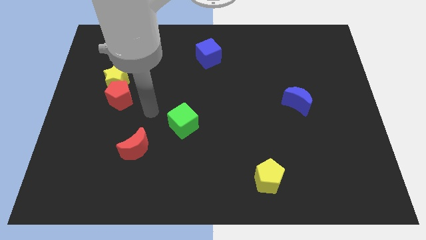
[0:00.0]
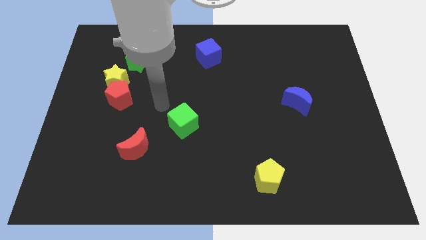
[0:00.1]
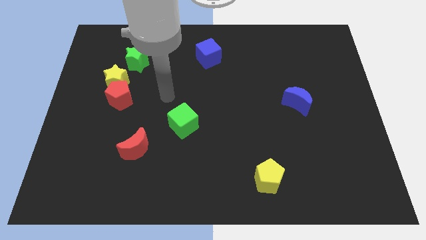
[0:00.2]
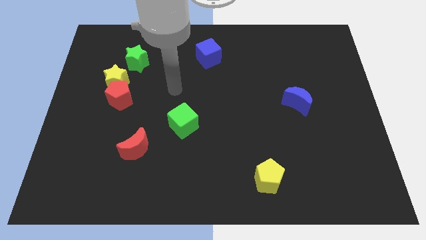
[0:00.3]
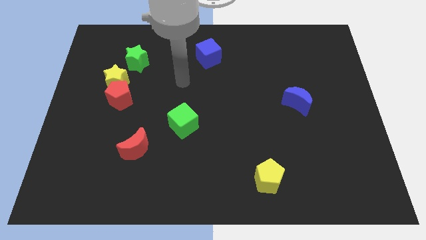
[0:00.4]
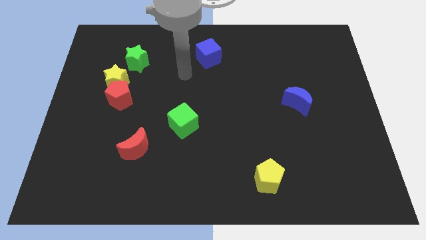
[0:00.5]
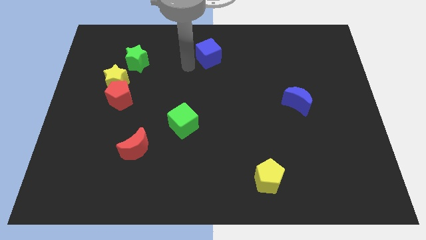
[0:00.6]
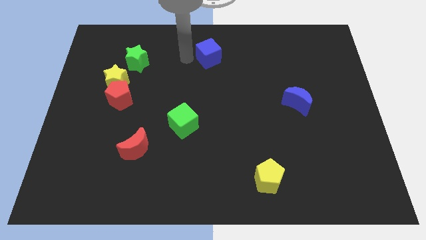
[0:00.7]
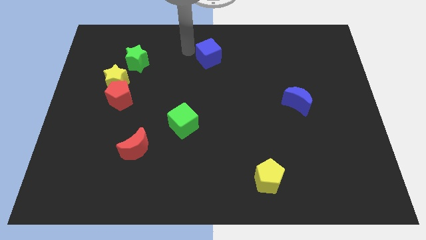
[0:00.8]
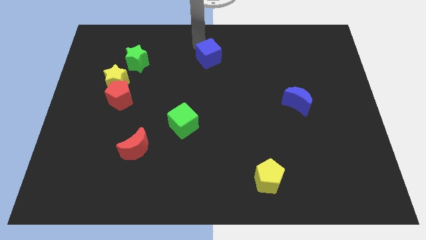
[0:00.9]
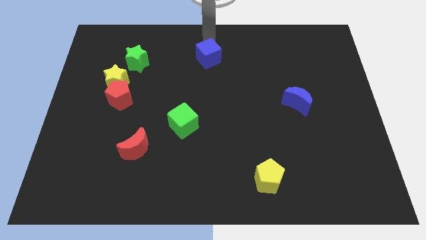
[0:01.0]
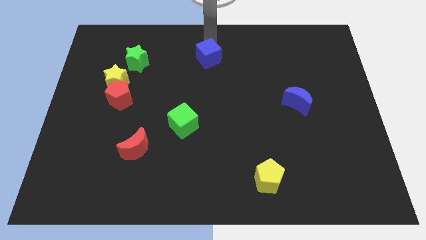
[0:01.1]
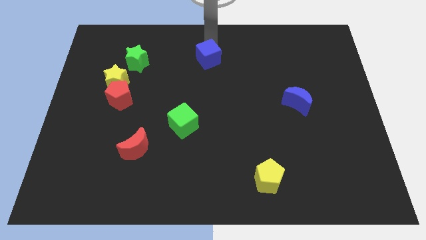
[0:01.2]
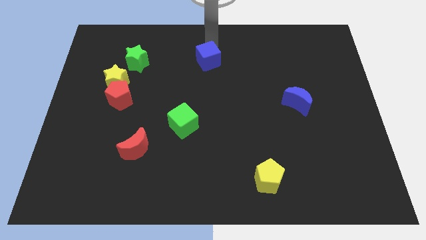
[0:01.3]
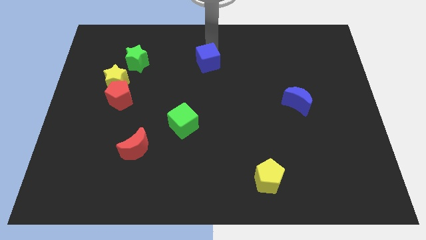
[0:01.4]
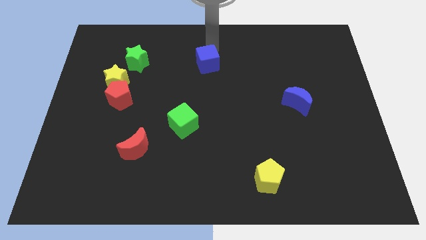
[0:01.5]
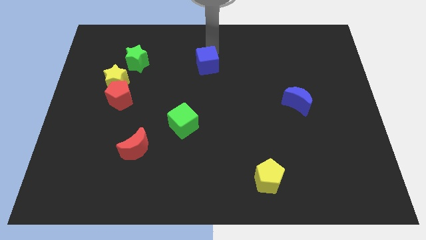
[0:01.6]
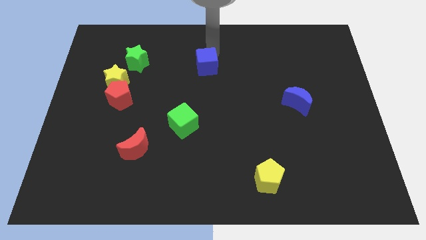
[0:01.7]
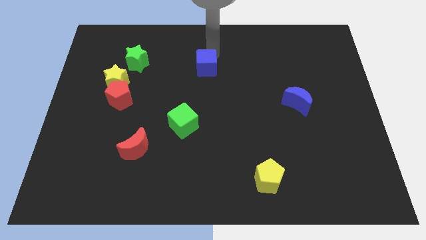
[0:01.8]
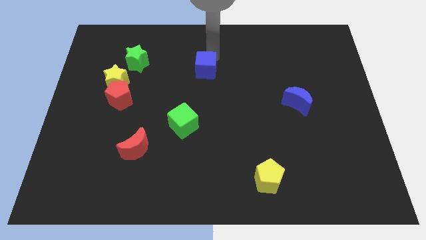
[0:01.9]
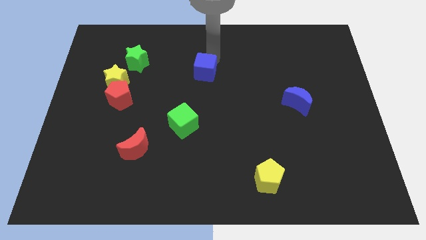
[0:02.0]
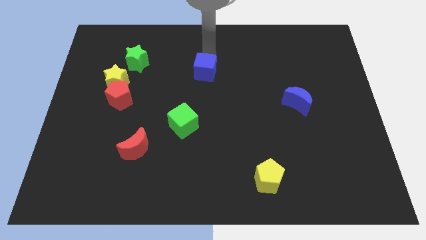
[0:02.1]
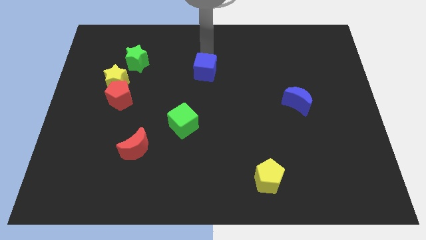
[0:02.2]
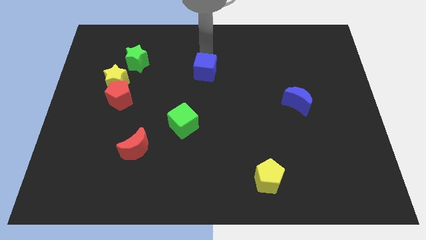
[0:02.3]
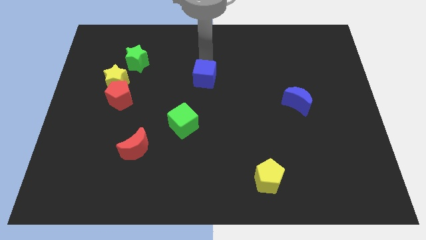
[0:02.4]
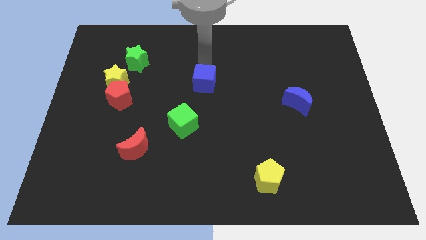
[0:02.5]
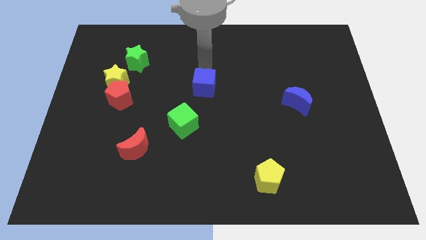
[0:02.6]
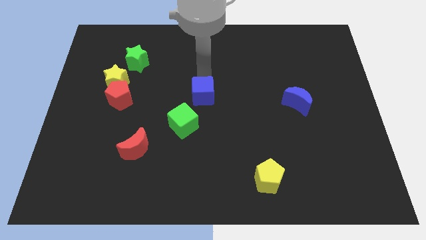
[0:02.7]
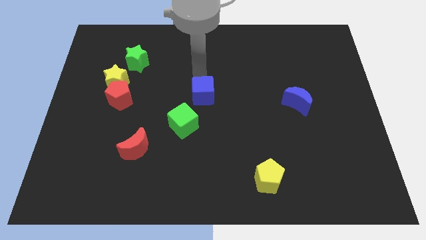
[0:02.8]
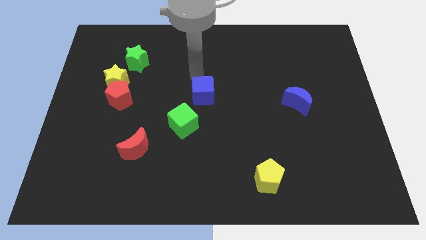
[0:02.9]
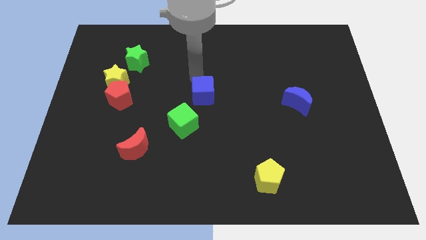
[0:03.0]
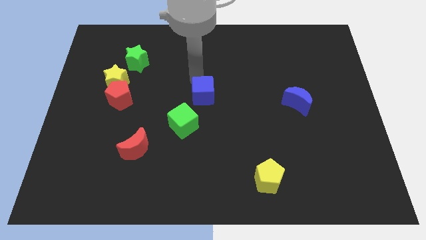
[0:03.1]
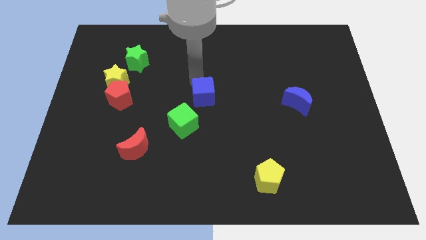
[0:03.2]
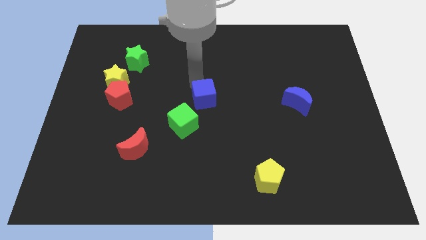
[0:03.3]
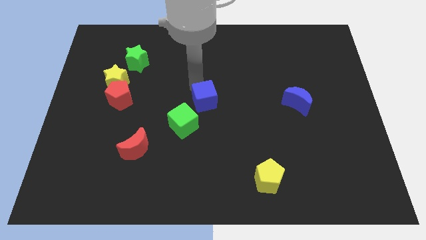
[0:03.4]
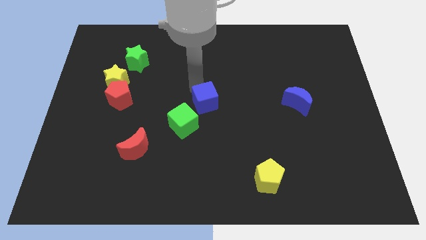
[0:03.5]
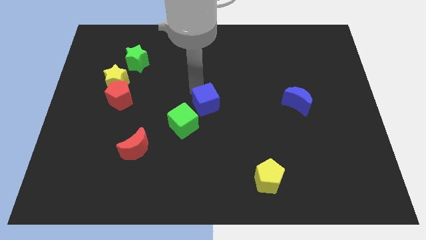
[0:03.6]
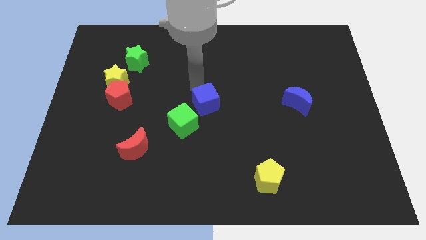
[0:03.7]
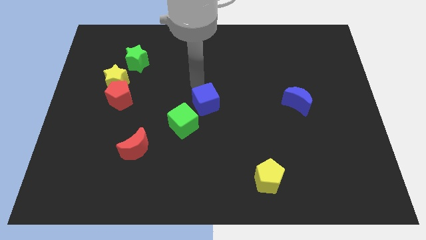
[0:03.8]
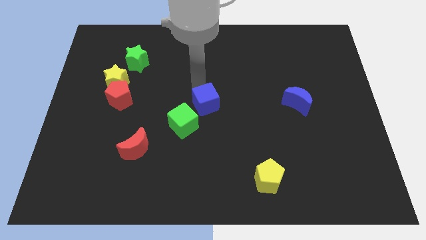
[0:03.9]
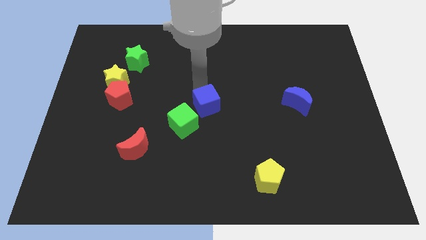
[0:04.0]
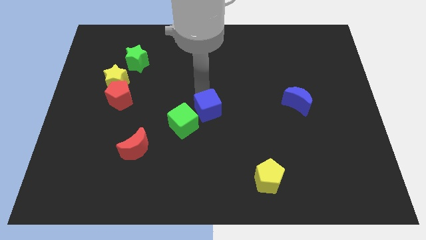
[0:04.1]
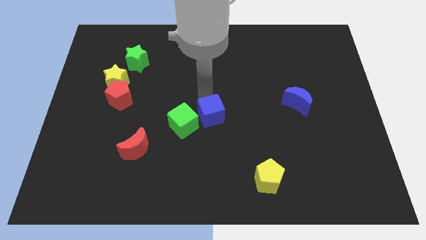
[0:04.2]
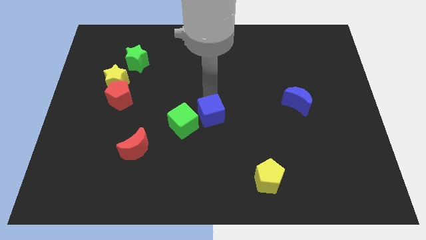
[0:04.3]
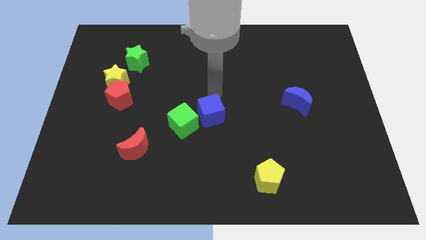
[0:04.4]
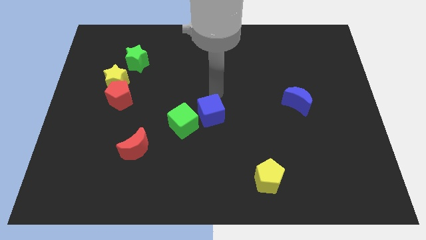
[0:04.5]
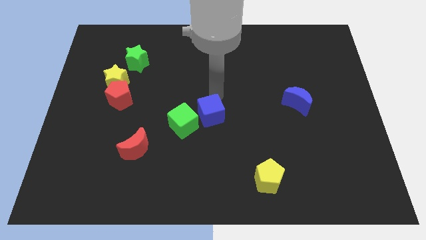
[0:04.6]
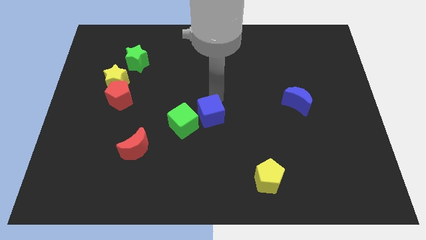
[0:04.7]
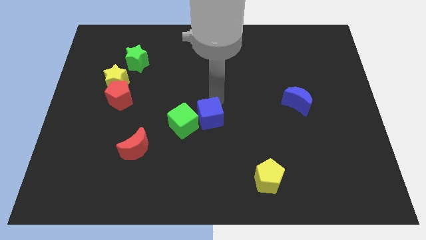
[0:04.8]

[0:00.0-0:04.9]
move the blue cube downwards

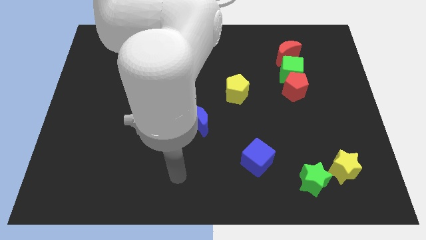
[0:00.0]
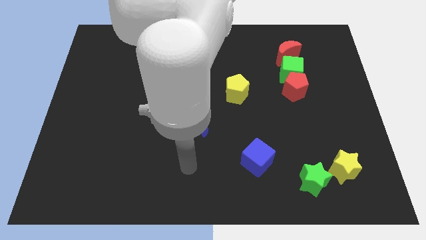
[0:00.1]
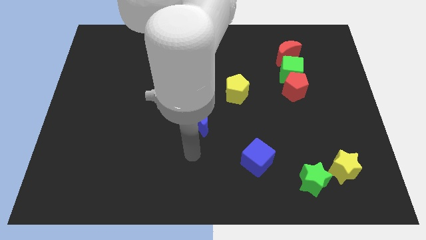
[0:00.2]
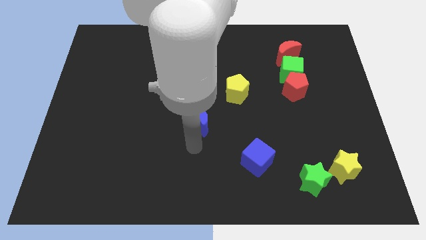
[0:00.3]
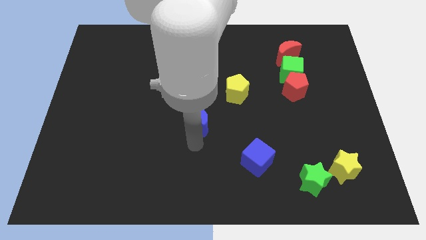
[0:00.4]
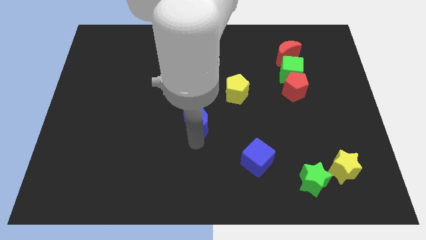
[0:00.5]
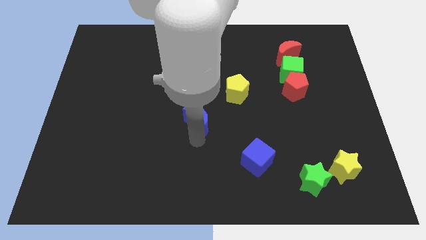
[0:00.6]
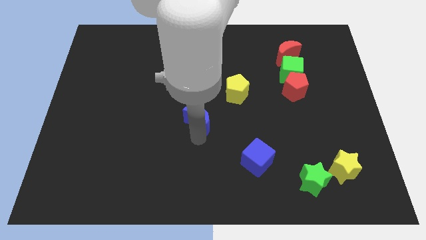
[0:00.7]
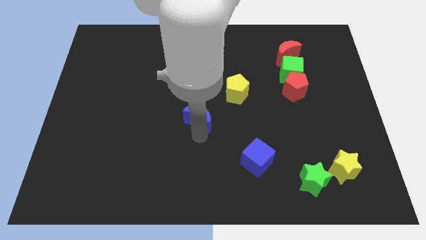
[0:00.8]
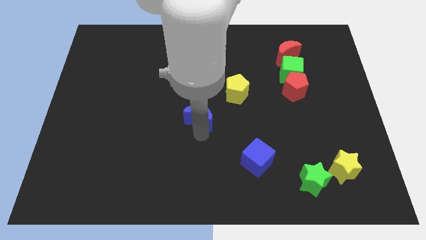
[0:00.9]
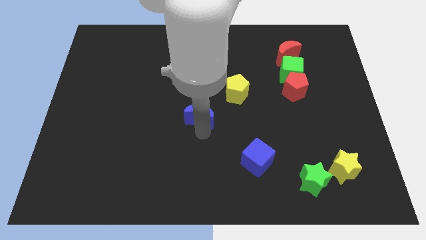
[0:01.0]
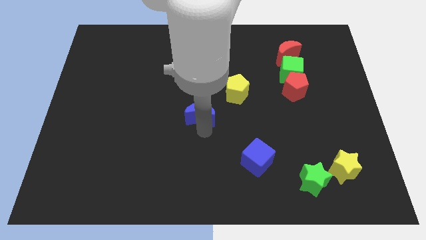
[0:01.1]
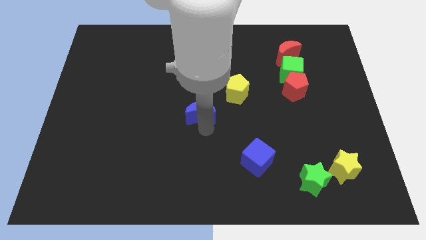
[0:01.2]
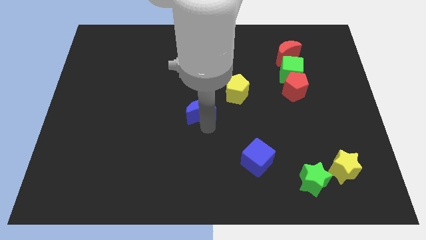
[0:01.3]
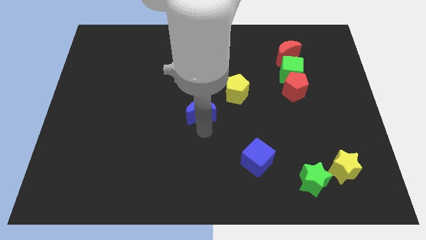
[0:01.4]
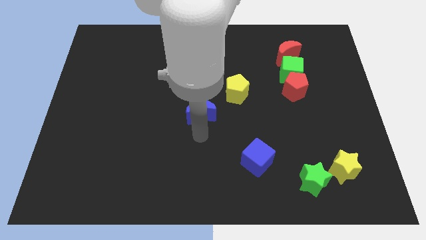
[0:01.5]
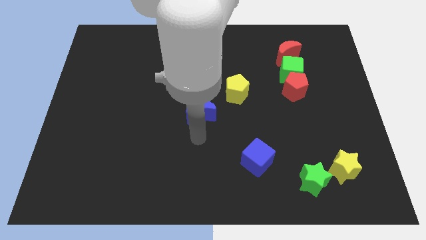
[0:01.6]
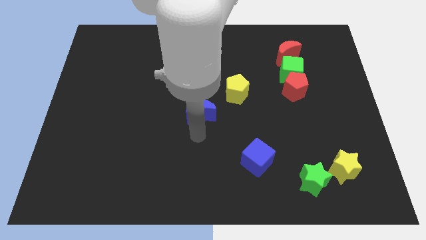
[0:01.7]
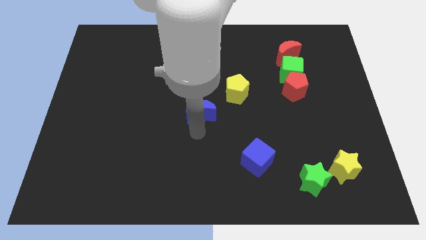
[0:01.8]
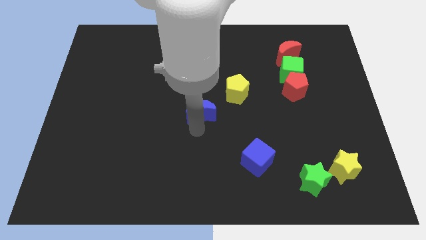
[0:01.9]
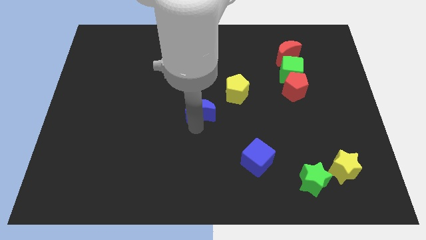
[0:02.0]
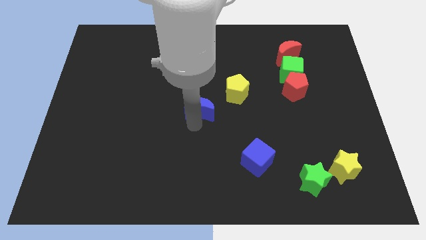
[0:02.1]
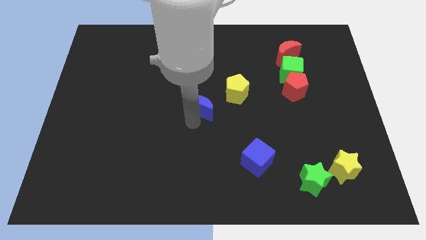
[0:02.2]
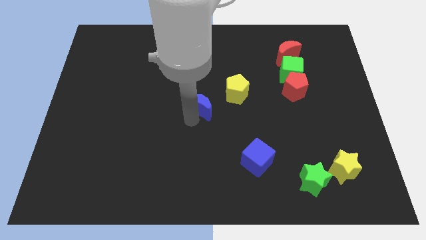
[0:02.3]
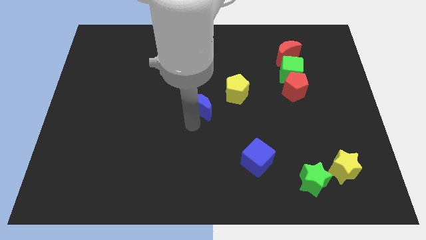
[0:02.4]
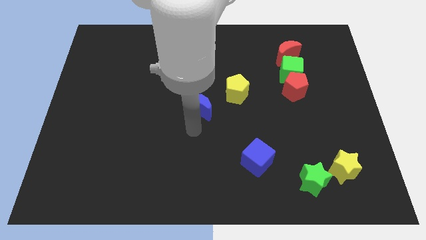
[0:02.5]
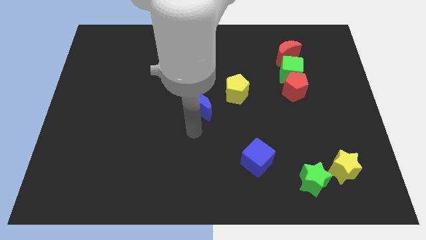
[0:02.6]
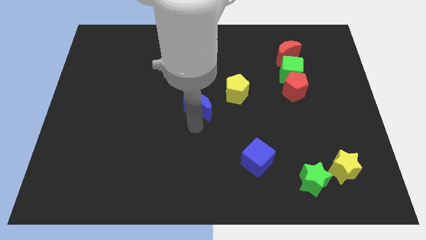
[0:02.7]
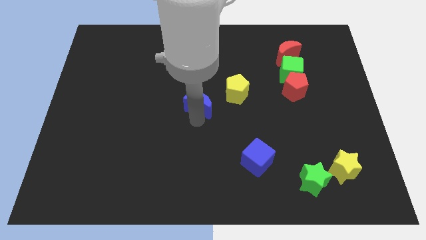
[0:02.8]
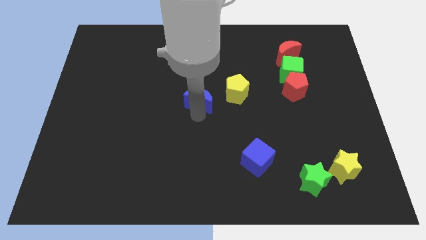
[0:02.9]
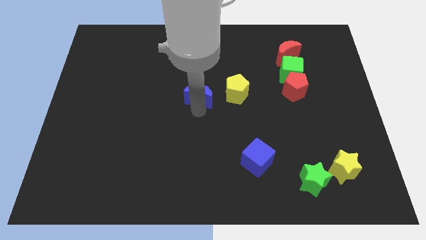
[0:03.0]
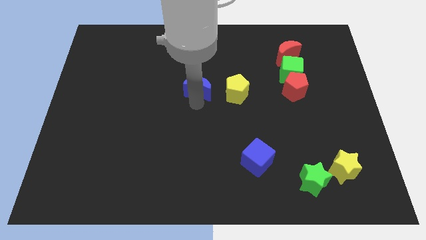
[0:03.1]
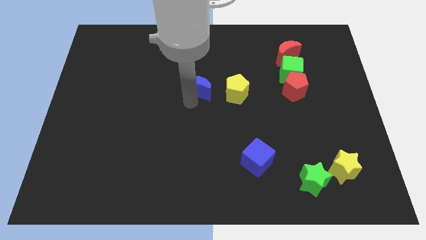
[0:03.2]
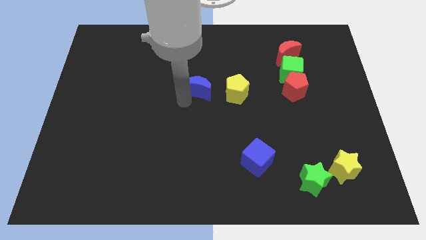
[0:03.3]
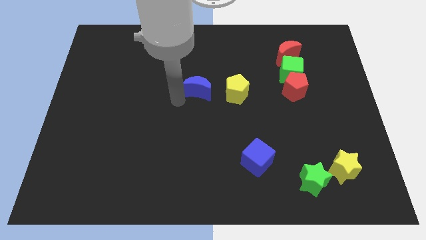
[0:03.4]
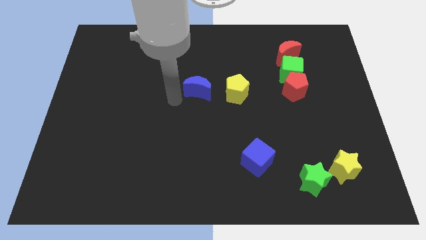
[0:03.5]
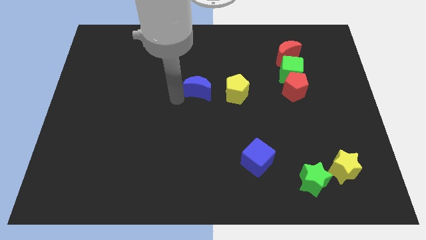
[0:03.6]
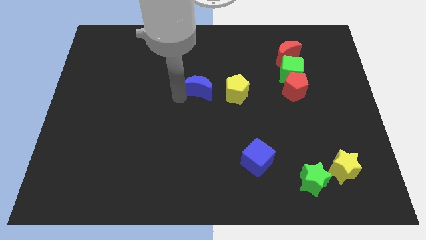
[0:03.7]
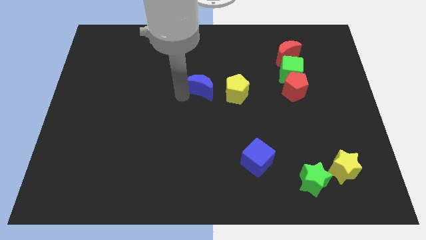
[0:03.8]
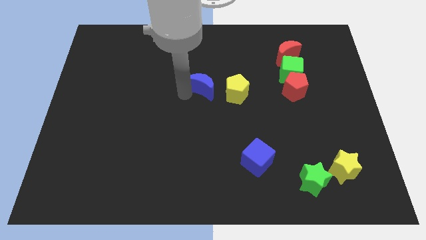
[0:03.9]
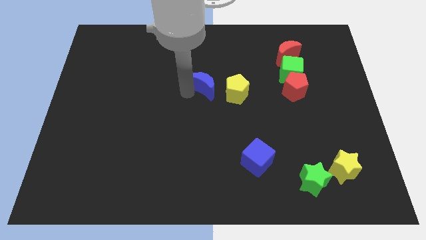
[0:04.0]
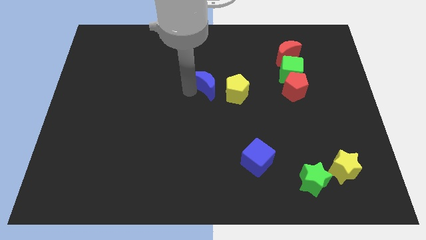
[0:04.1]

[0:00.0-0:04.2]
slide the blue moon up and then to the right a little
